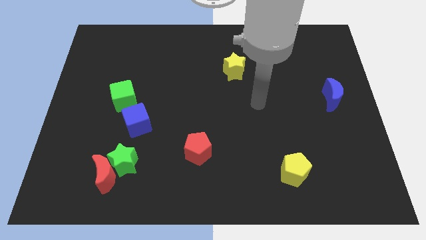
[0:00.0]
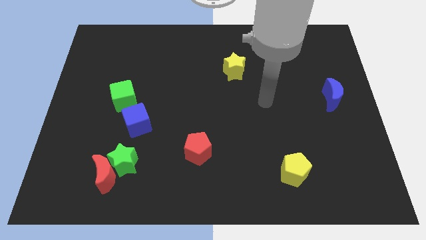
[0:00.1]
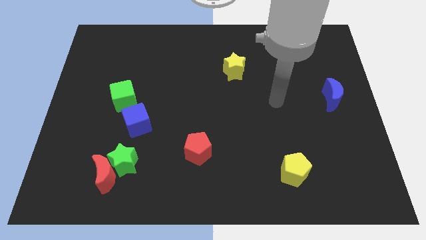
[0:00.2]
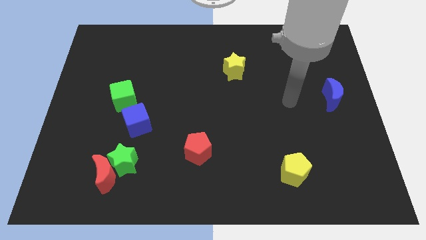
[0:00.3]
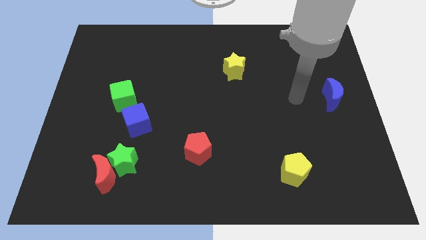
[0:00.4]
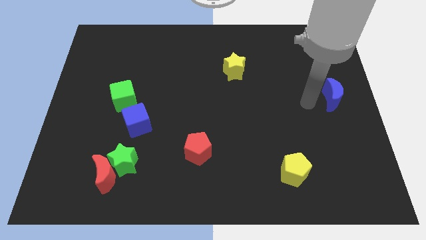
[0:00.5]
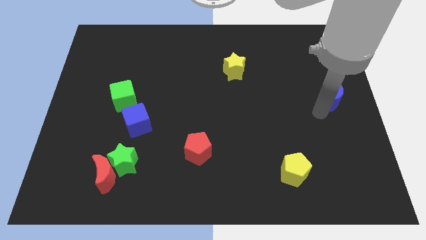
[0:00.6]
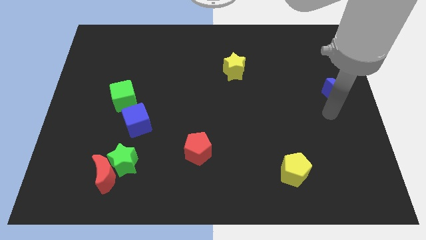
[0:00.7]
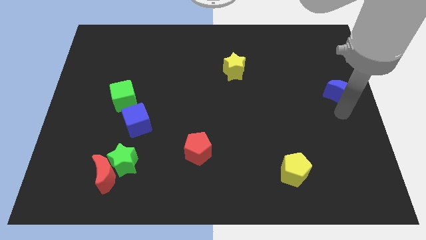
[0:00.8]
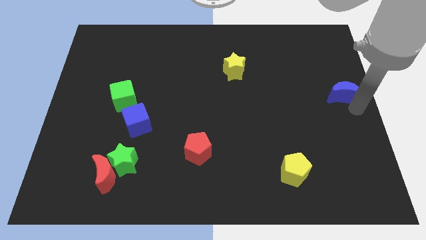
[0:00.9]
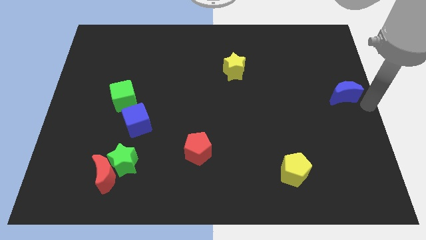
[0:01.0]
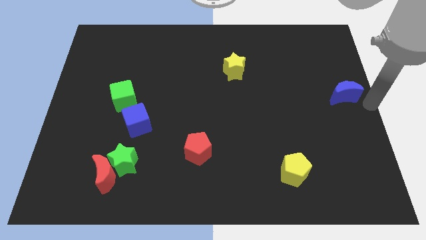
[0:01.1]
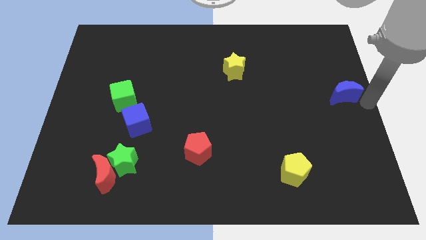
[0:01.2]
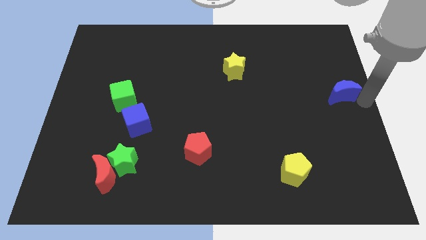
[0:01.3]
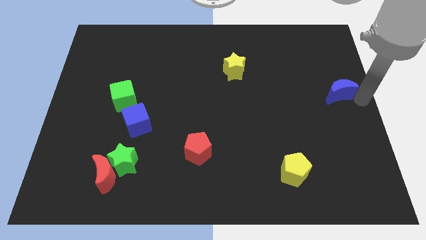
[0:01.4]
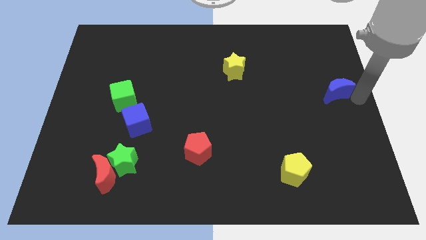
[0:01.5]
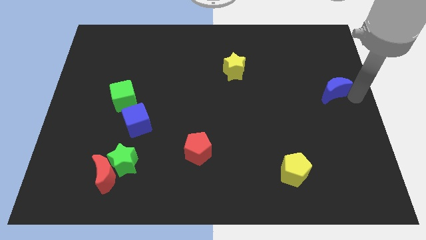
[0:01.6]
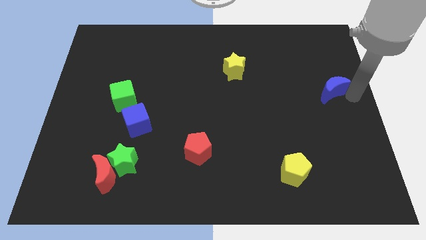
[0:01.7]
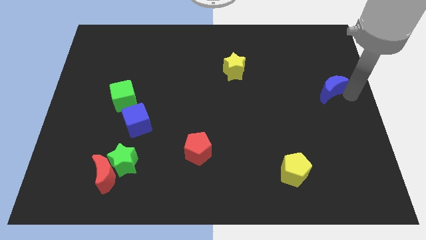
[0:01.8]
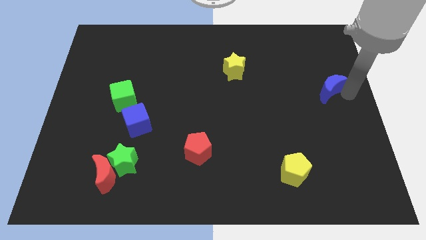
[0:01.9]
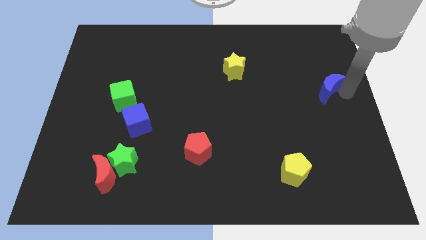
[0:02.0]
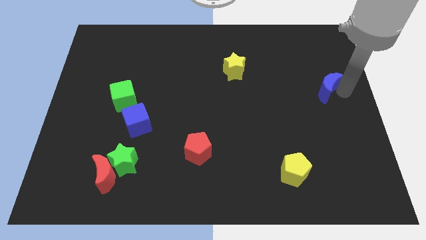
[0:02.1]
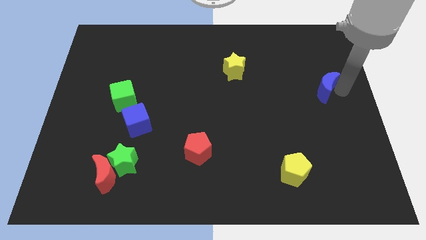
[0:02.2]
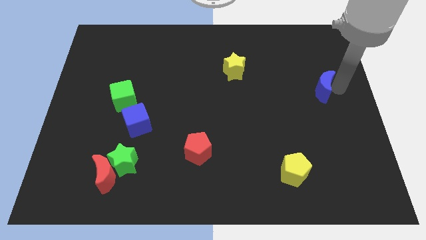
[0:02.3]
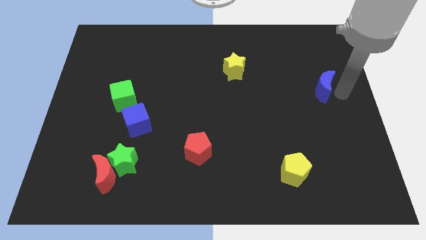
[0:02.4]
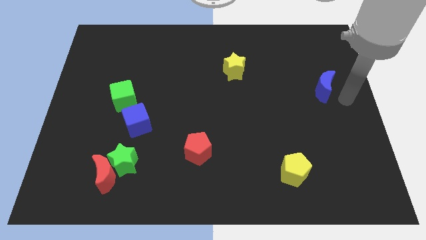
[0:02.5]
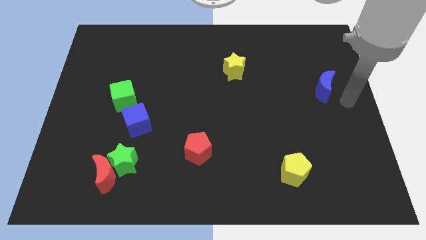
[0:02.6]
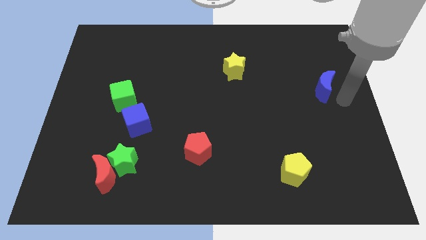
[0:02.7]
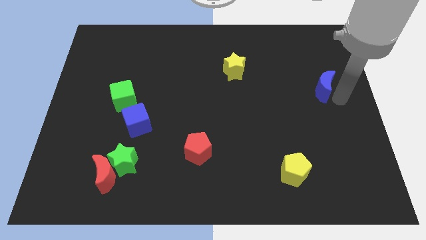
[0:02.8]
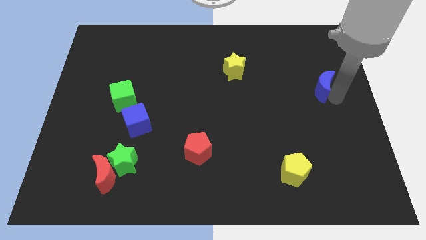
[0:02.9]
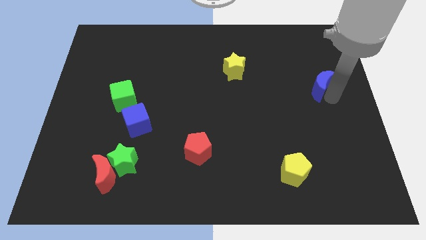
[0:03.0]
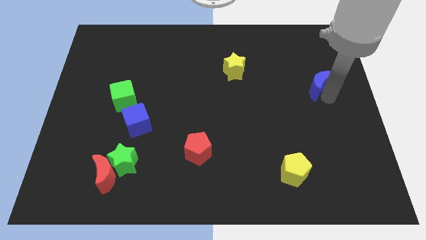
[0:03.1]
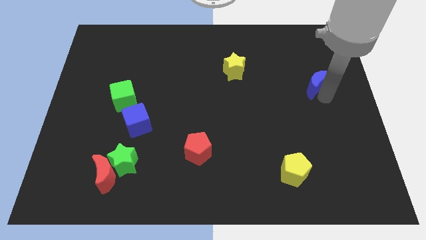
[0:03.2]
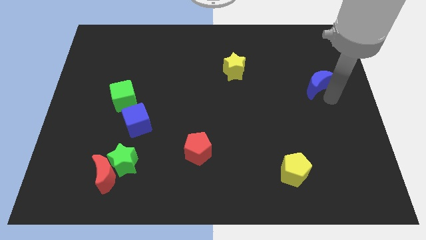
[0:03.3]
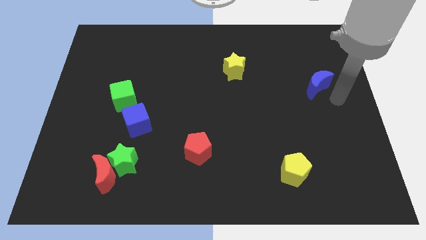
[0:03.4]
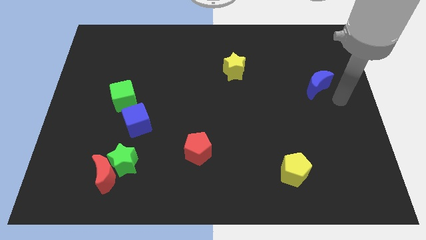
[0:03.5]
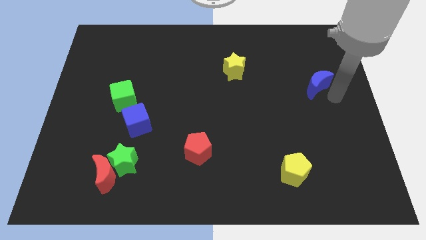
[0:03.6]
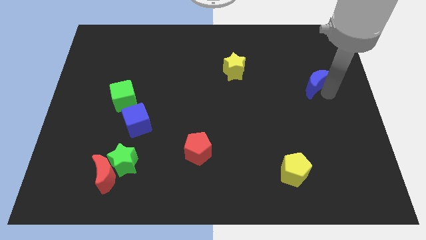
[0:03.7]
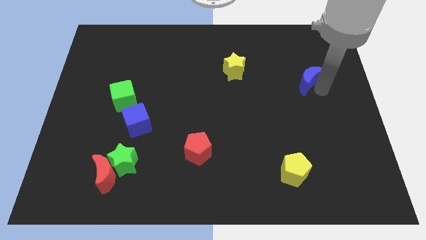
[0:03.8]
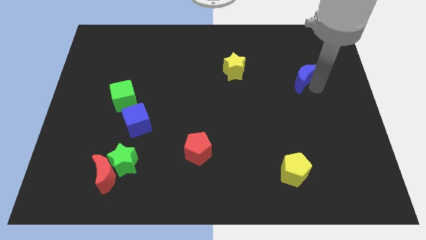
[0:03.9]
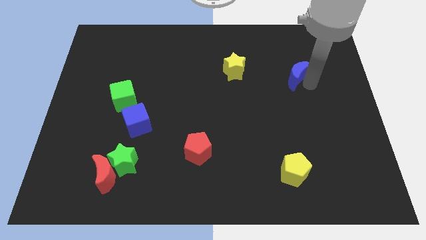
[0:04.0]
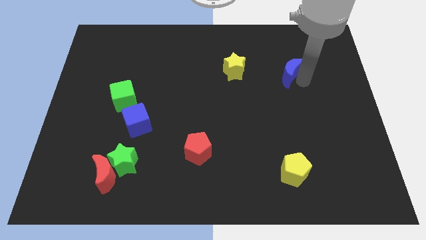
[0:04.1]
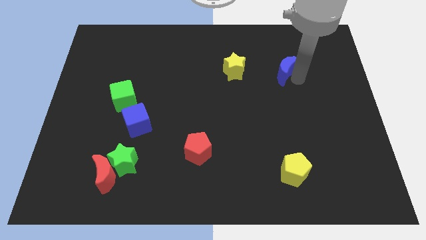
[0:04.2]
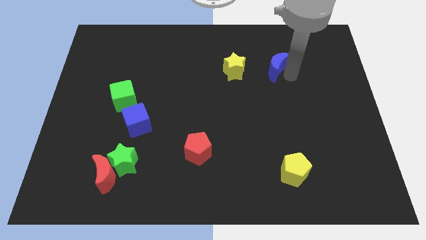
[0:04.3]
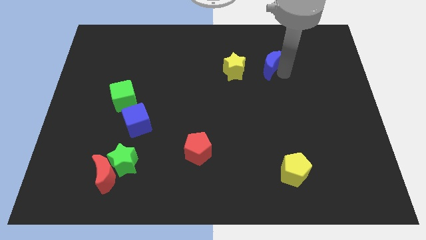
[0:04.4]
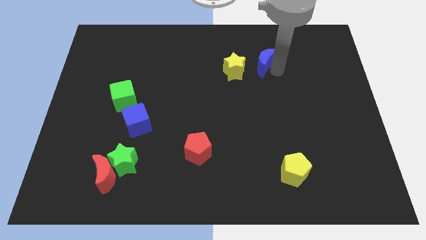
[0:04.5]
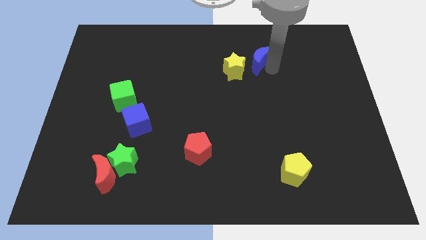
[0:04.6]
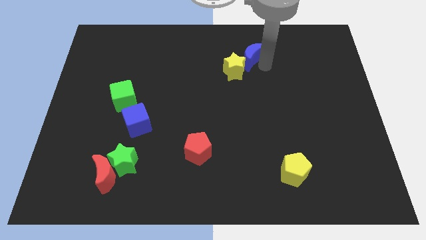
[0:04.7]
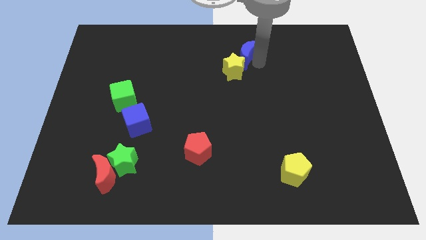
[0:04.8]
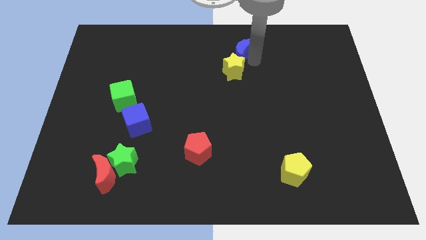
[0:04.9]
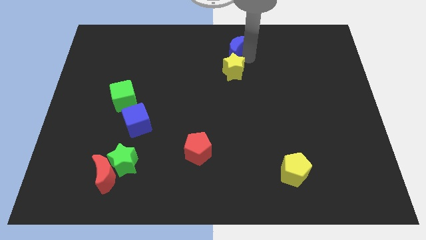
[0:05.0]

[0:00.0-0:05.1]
move the blue moon to the top

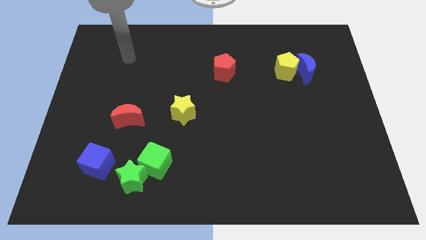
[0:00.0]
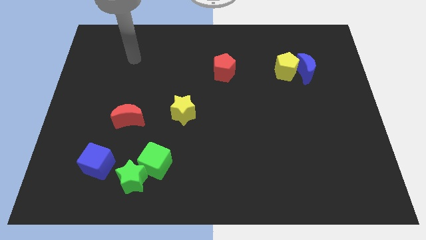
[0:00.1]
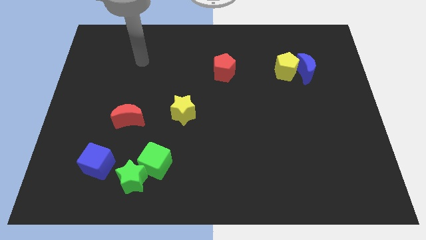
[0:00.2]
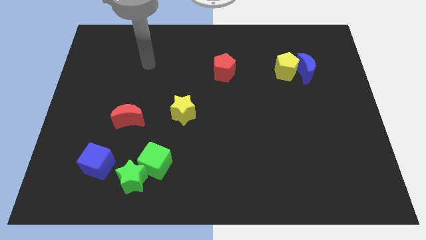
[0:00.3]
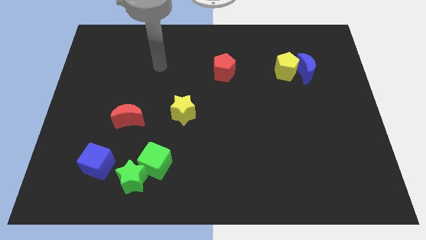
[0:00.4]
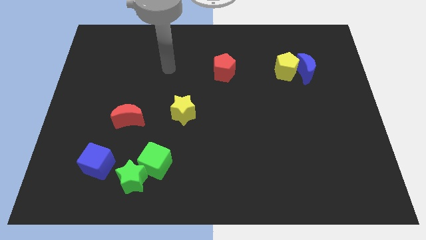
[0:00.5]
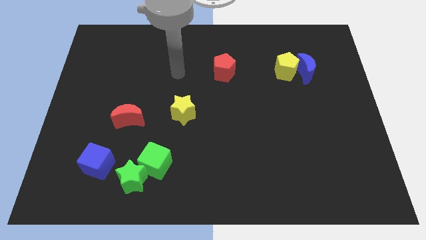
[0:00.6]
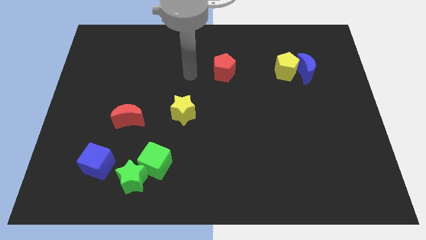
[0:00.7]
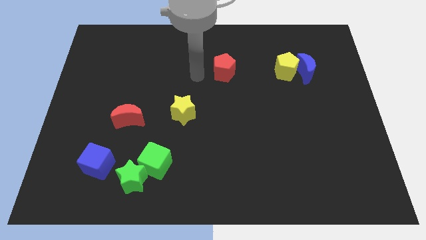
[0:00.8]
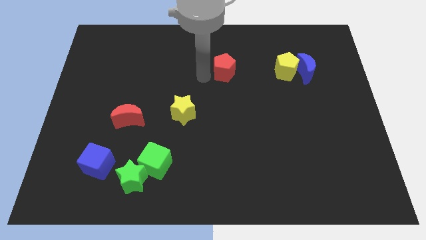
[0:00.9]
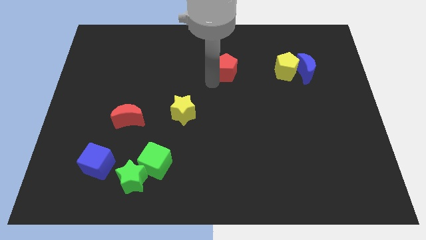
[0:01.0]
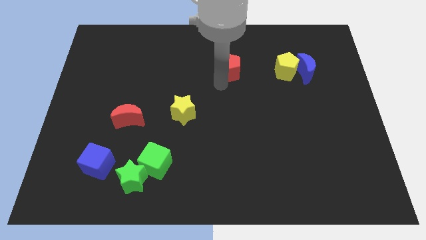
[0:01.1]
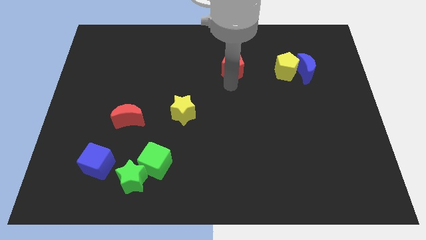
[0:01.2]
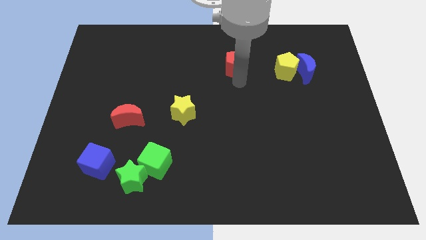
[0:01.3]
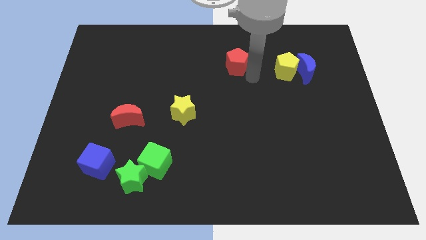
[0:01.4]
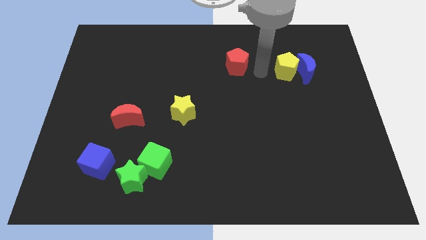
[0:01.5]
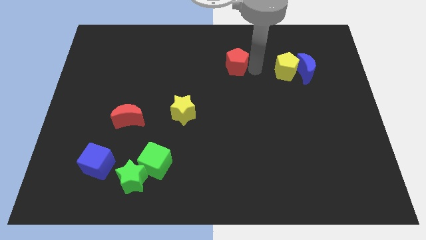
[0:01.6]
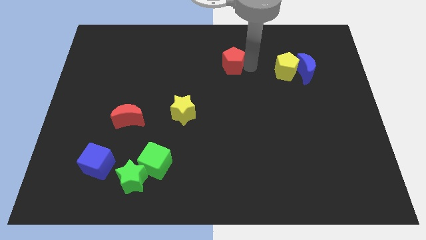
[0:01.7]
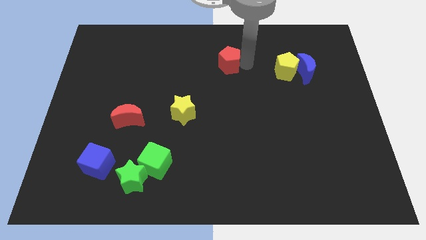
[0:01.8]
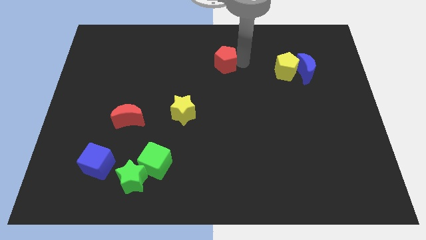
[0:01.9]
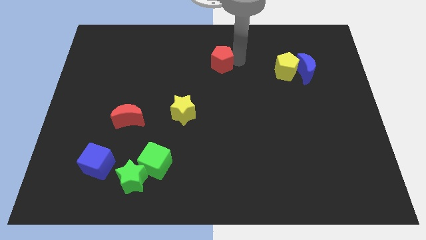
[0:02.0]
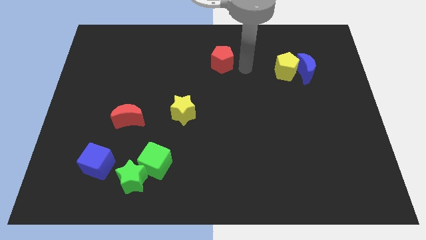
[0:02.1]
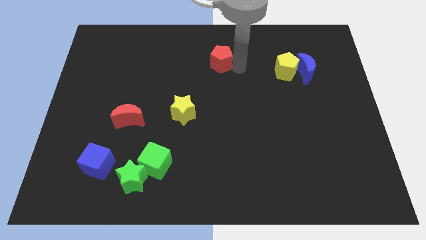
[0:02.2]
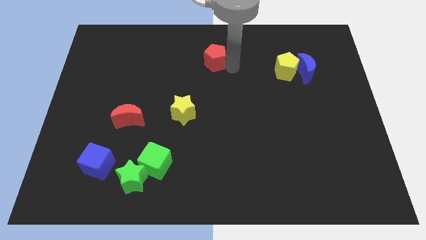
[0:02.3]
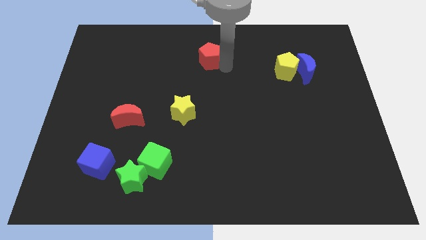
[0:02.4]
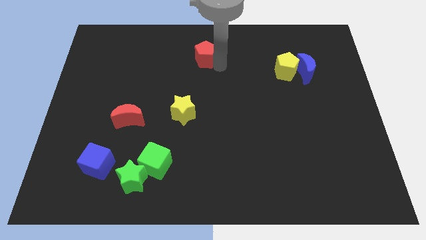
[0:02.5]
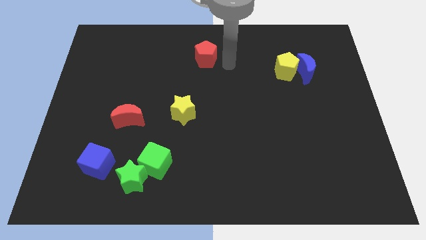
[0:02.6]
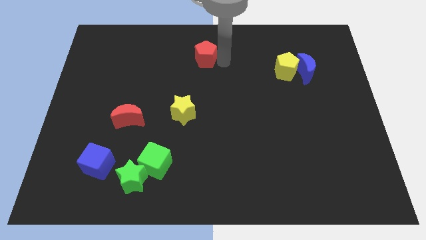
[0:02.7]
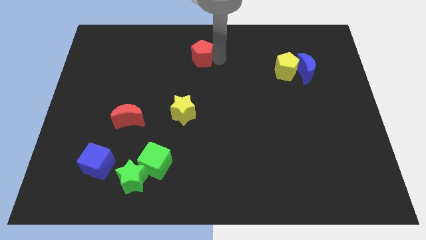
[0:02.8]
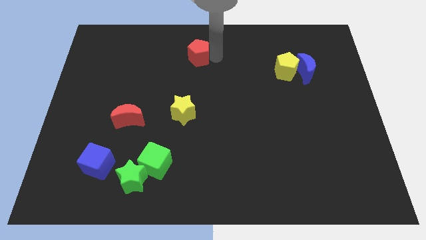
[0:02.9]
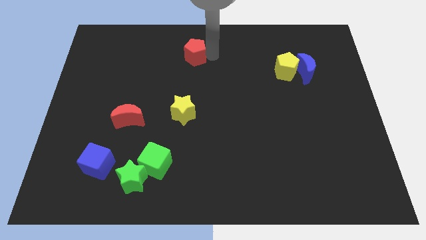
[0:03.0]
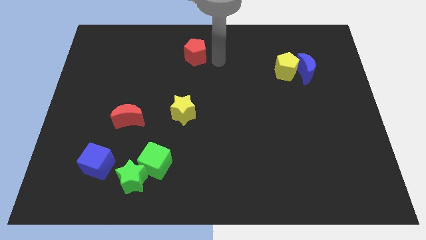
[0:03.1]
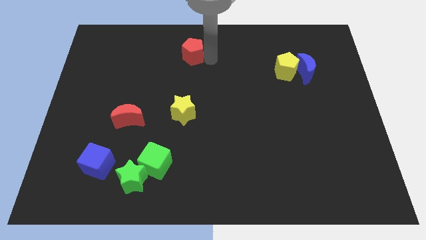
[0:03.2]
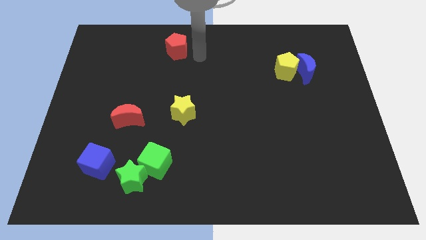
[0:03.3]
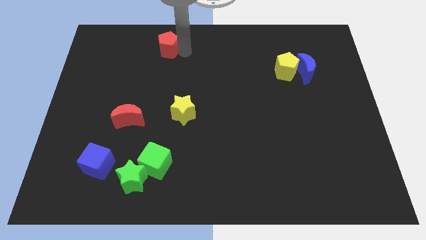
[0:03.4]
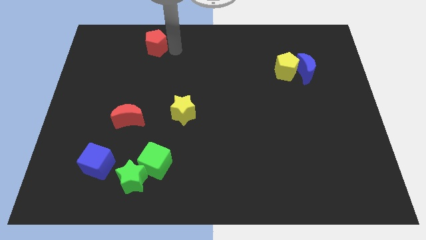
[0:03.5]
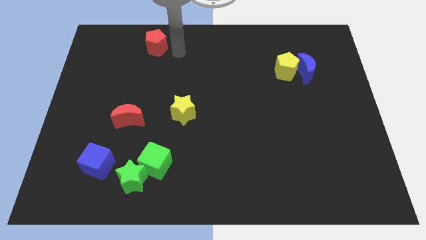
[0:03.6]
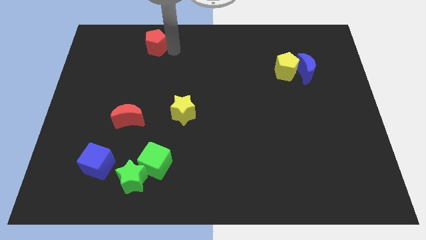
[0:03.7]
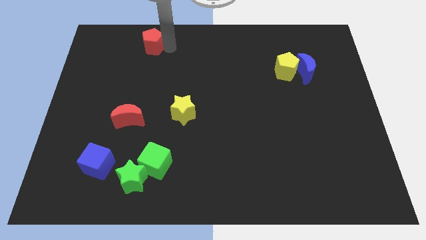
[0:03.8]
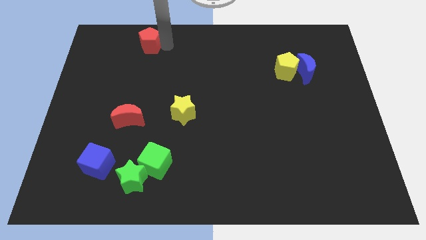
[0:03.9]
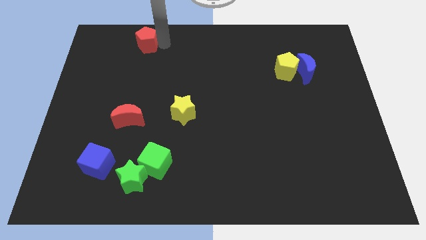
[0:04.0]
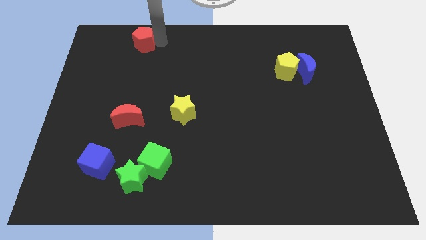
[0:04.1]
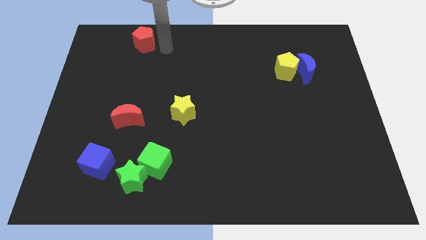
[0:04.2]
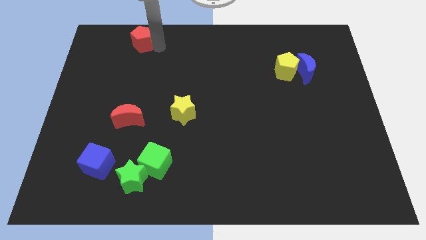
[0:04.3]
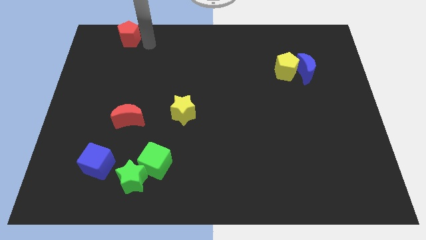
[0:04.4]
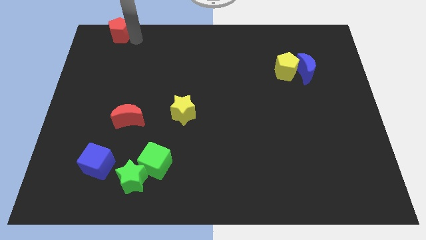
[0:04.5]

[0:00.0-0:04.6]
move the red pentagon to the top left of the board
